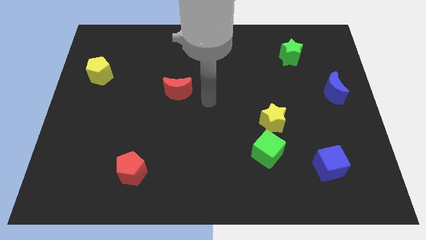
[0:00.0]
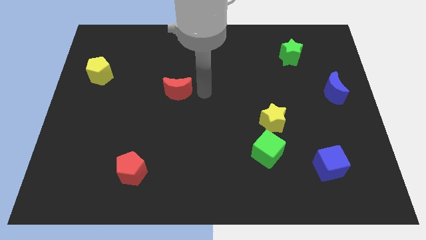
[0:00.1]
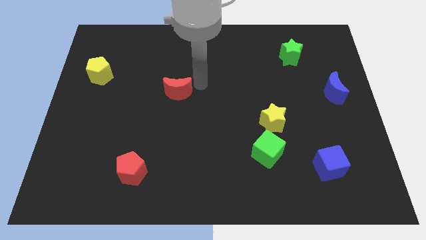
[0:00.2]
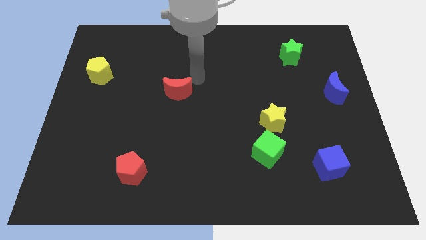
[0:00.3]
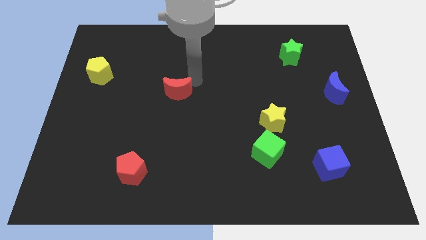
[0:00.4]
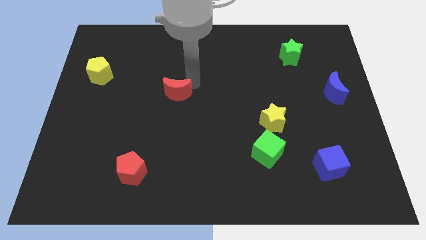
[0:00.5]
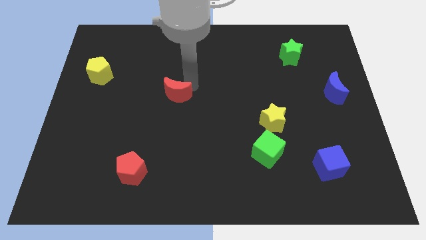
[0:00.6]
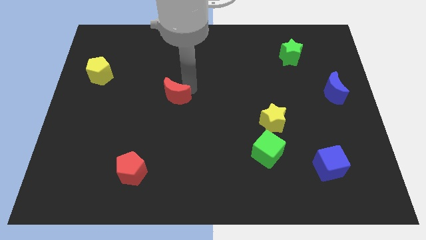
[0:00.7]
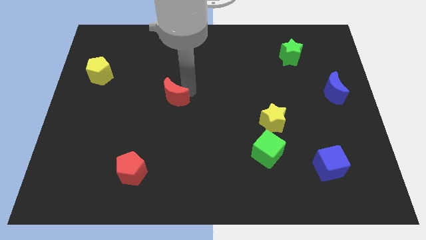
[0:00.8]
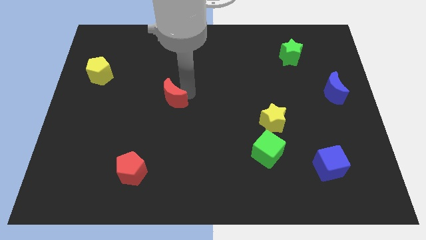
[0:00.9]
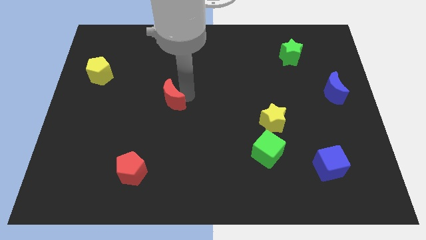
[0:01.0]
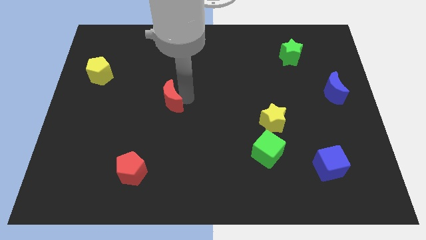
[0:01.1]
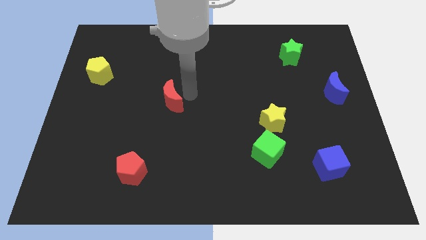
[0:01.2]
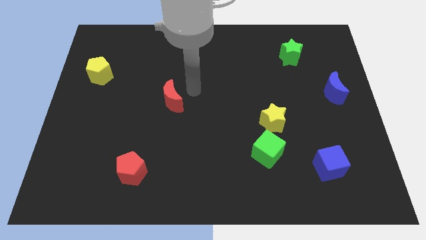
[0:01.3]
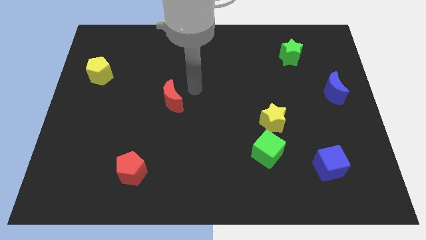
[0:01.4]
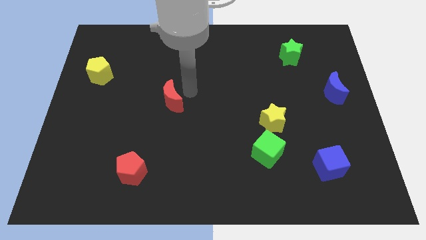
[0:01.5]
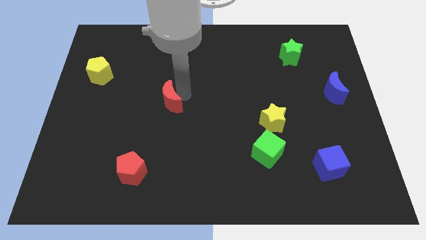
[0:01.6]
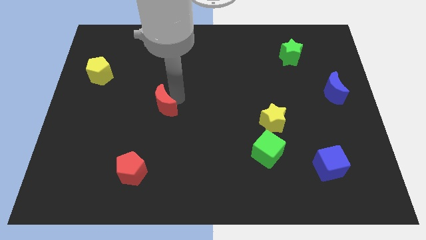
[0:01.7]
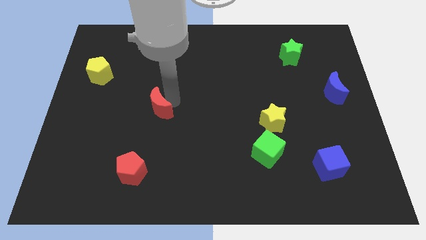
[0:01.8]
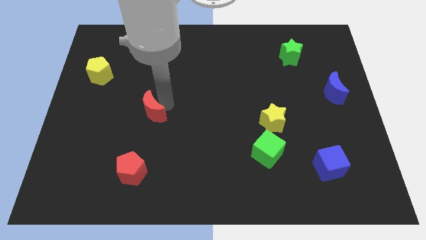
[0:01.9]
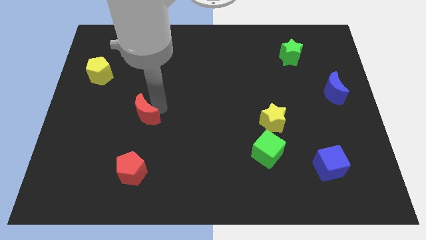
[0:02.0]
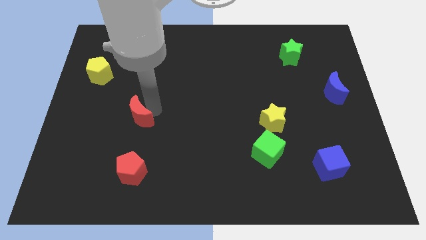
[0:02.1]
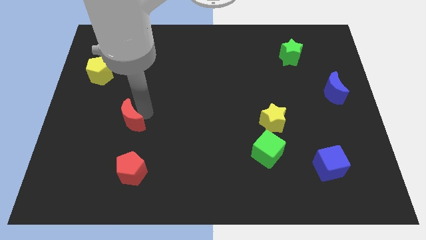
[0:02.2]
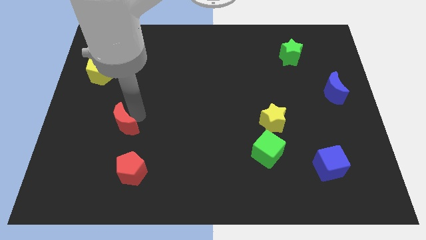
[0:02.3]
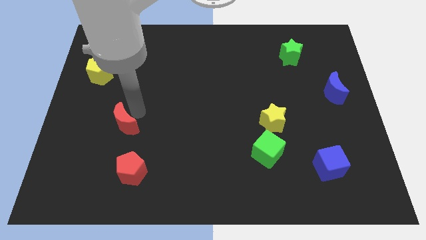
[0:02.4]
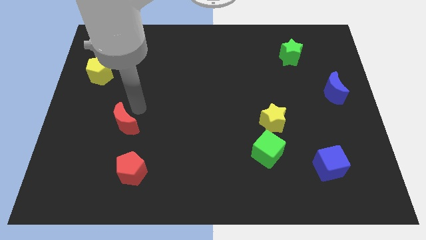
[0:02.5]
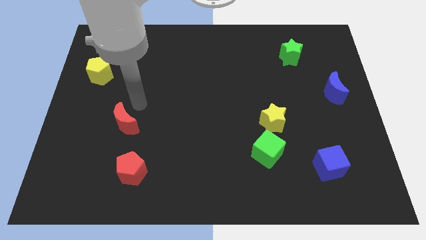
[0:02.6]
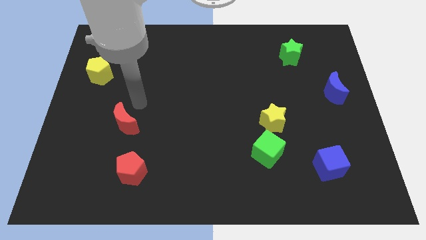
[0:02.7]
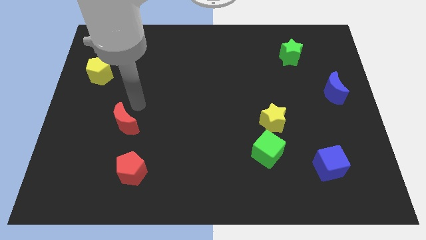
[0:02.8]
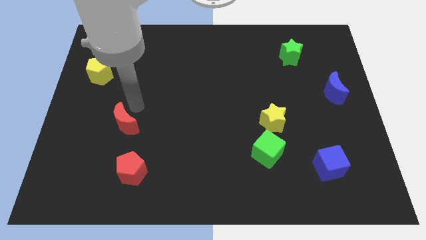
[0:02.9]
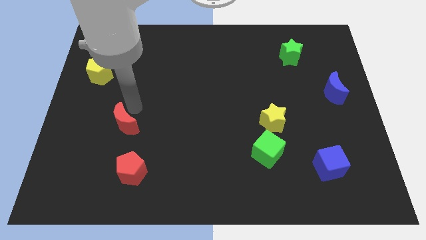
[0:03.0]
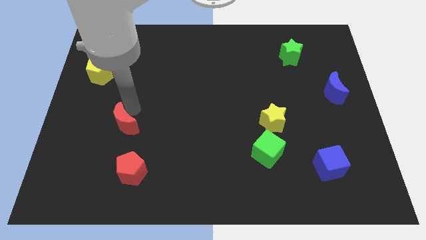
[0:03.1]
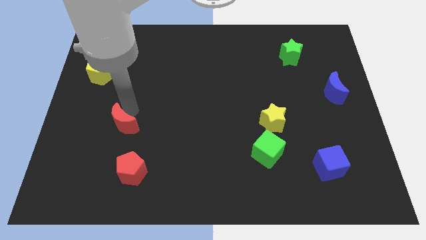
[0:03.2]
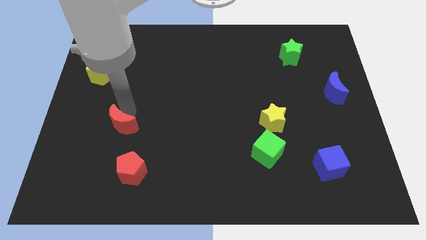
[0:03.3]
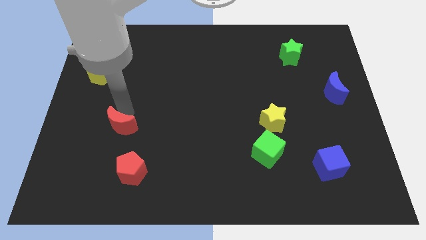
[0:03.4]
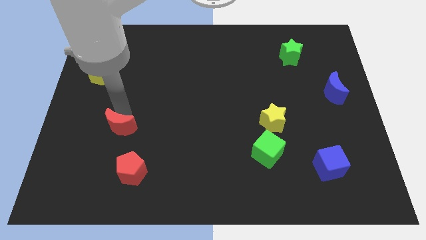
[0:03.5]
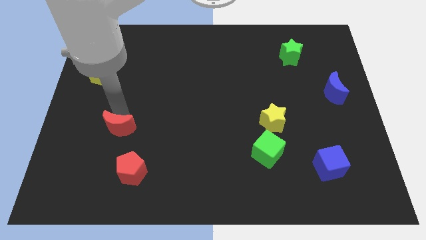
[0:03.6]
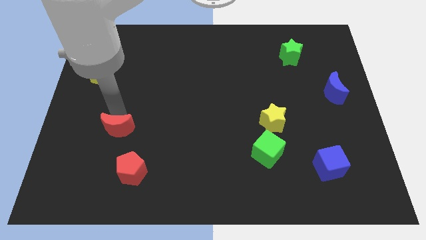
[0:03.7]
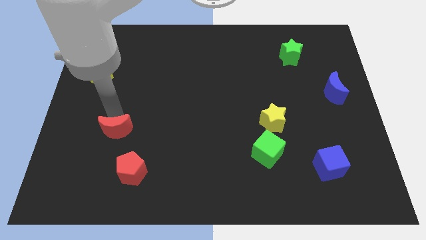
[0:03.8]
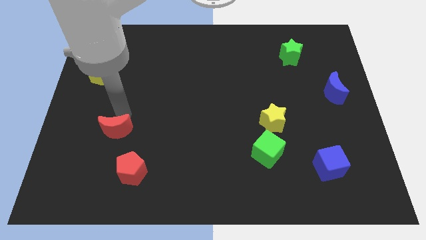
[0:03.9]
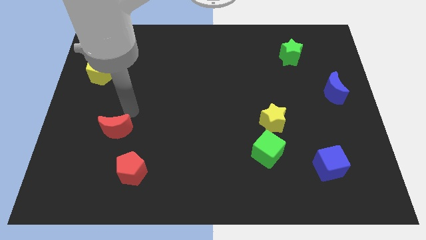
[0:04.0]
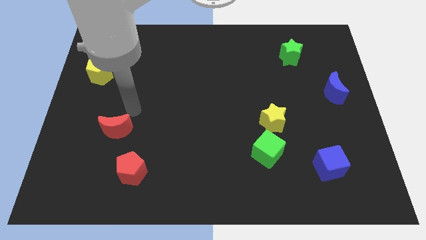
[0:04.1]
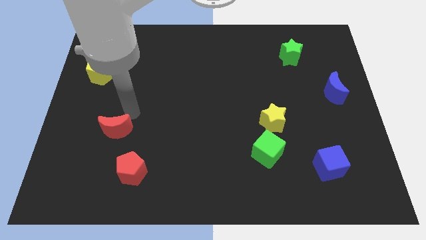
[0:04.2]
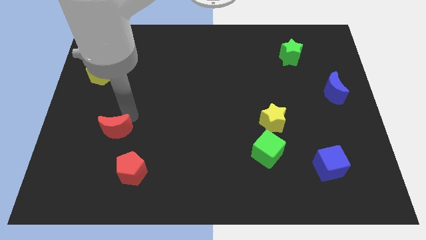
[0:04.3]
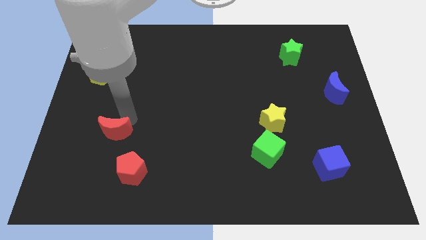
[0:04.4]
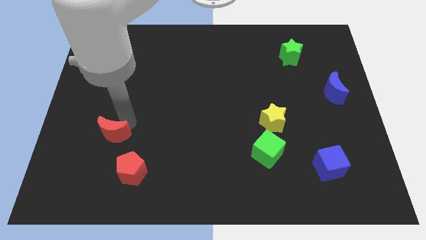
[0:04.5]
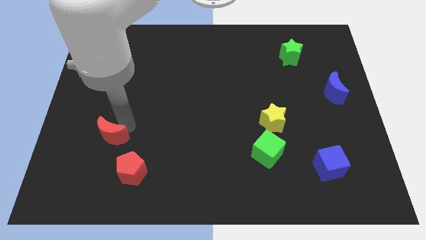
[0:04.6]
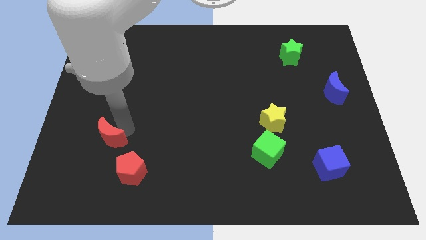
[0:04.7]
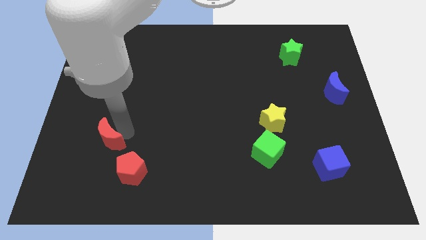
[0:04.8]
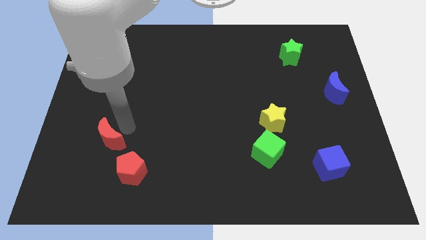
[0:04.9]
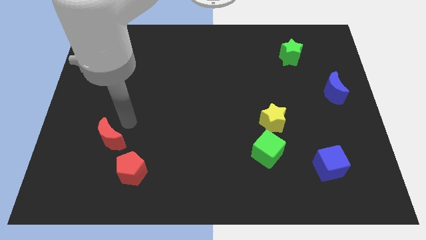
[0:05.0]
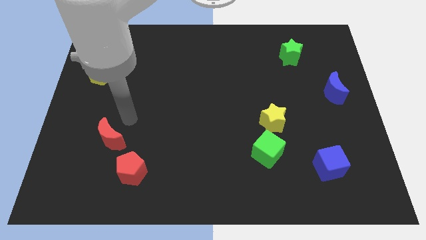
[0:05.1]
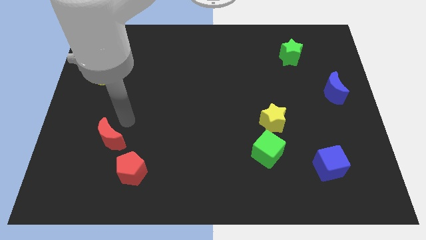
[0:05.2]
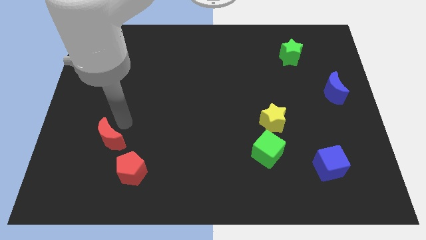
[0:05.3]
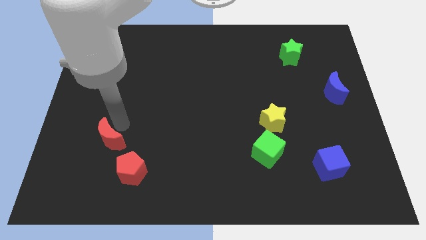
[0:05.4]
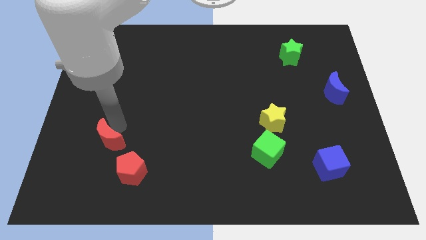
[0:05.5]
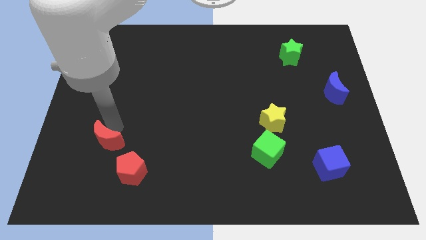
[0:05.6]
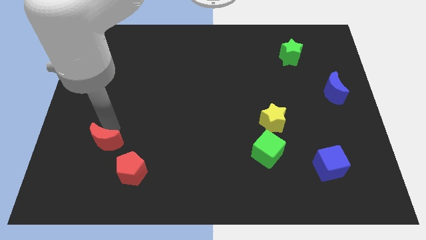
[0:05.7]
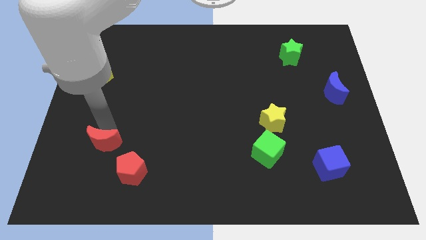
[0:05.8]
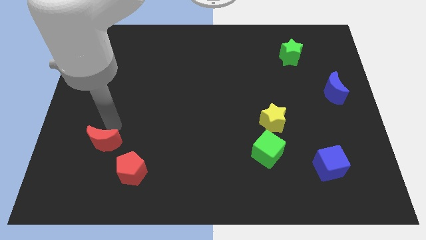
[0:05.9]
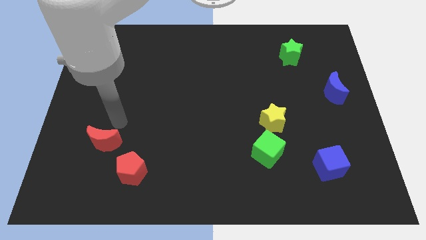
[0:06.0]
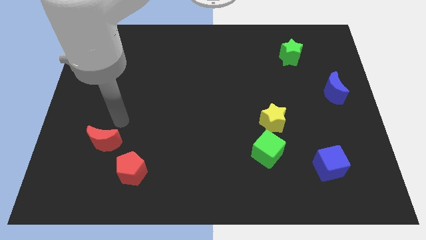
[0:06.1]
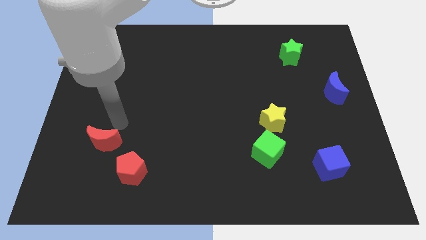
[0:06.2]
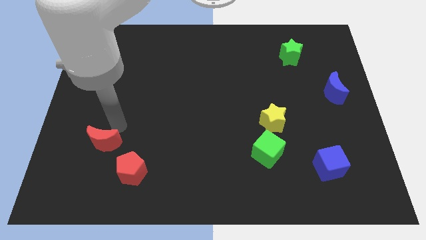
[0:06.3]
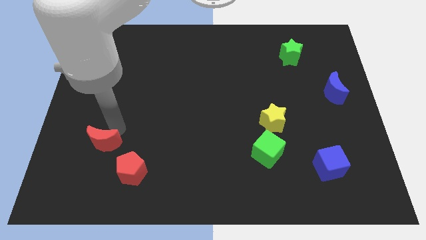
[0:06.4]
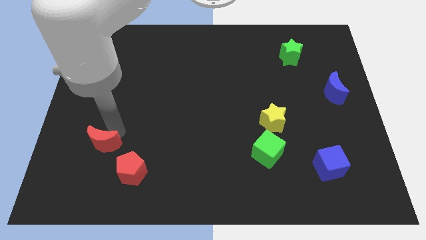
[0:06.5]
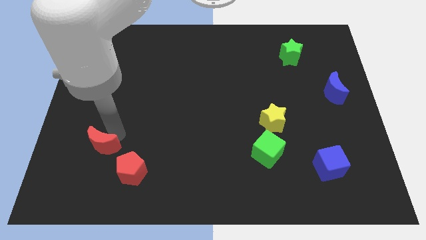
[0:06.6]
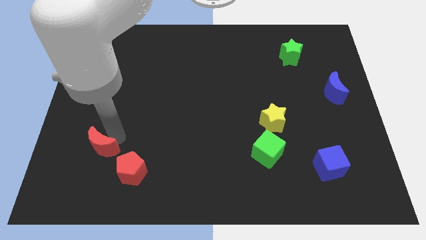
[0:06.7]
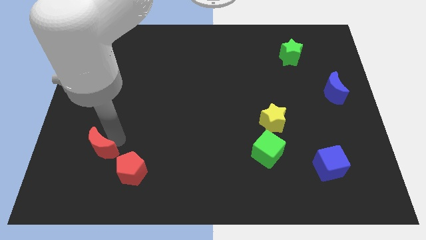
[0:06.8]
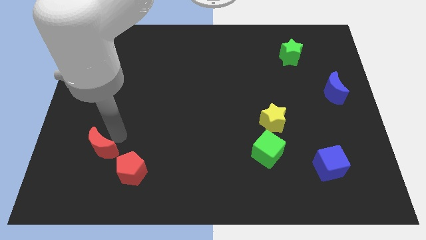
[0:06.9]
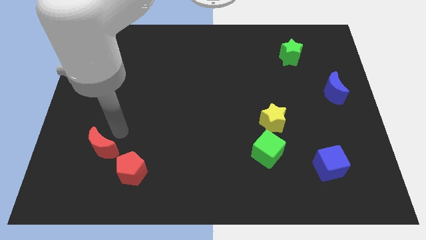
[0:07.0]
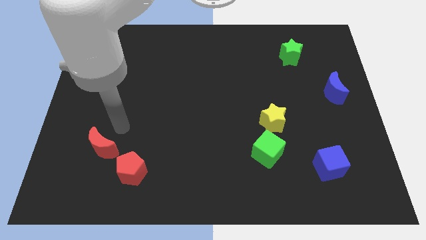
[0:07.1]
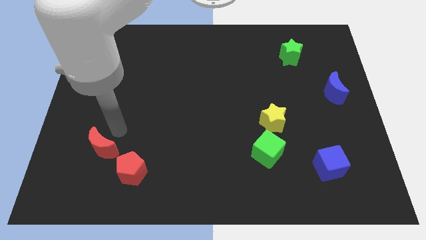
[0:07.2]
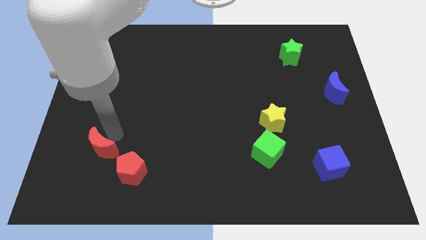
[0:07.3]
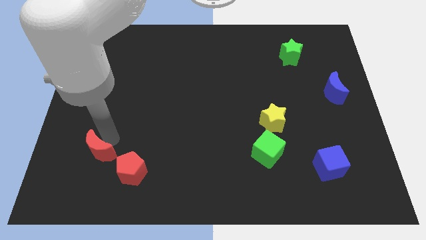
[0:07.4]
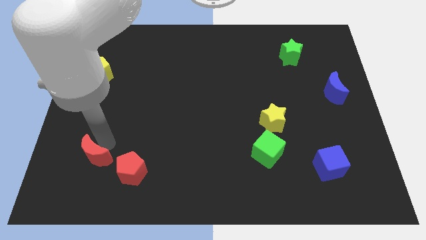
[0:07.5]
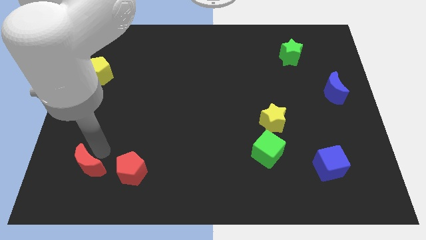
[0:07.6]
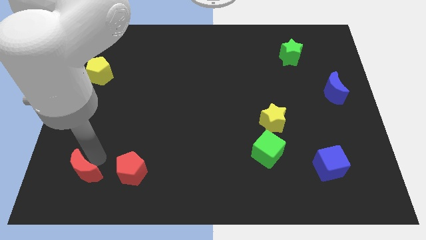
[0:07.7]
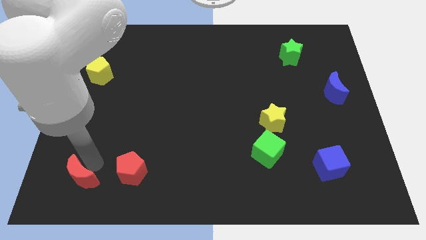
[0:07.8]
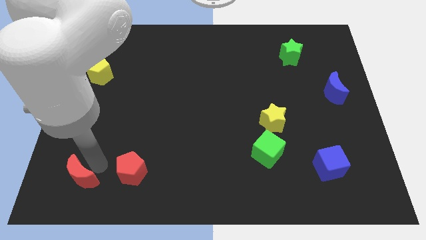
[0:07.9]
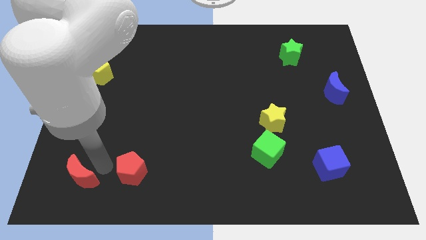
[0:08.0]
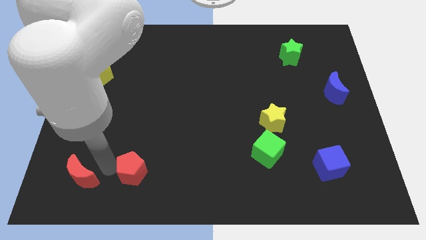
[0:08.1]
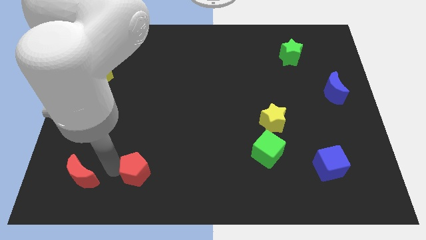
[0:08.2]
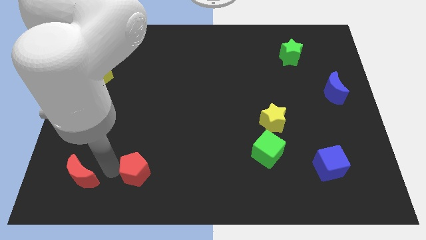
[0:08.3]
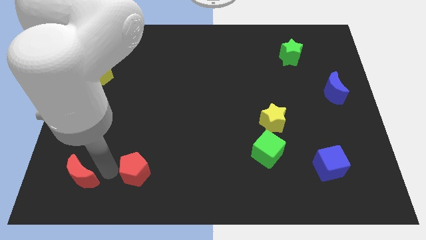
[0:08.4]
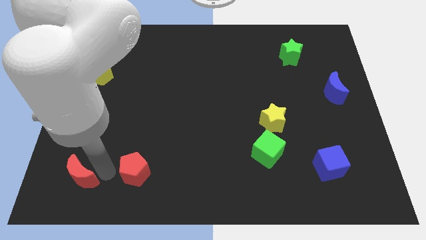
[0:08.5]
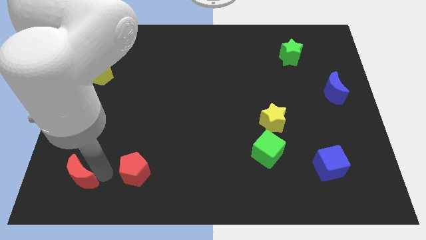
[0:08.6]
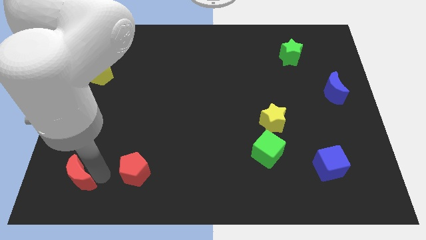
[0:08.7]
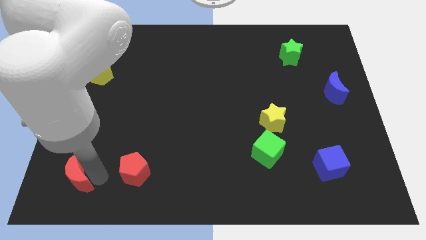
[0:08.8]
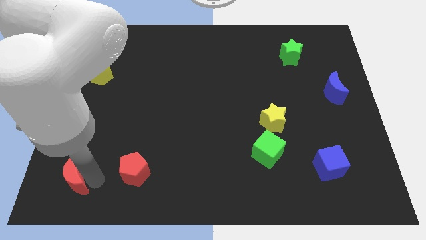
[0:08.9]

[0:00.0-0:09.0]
push the red moon to the bottom left of the board
